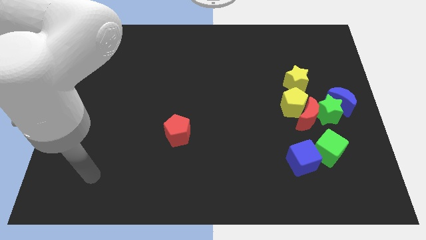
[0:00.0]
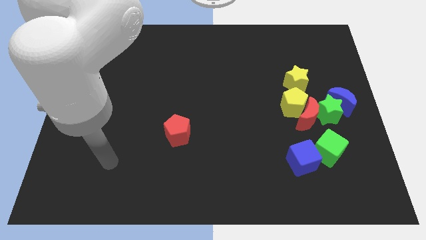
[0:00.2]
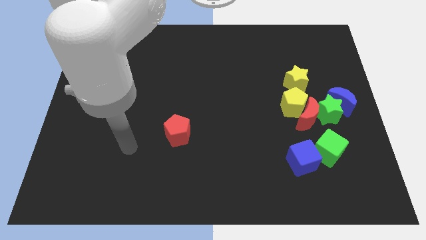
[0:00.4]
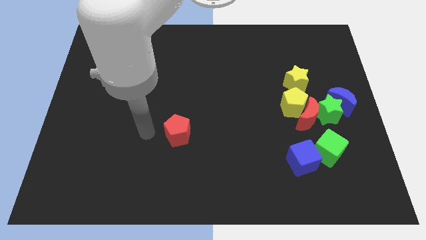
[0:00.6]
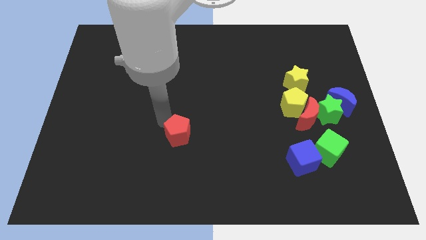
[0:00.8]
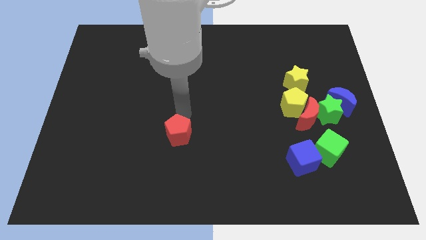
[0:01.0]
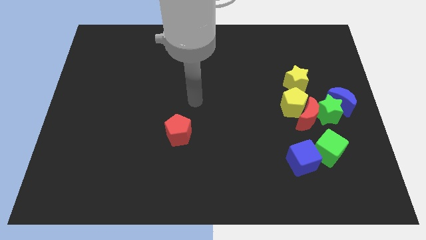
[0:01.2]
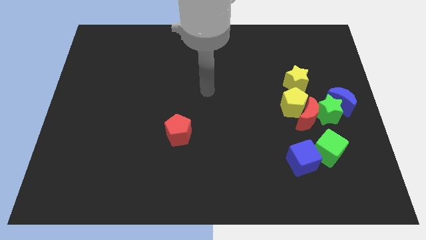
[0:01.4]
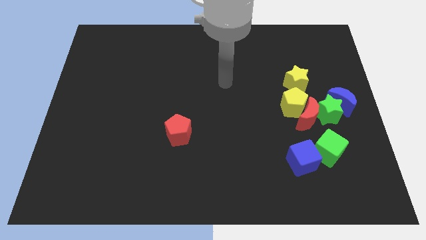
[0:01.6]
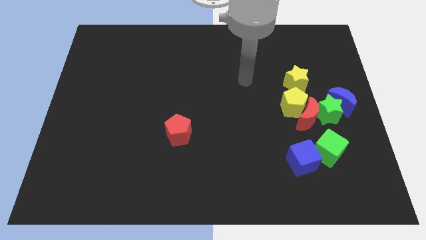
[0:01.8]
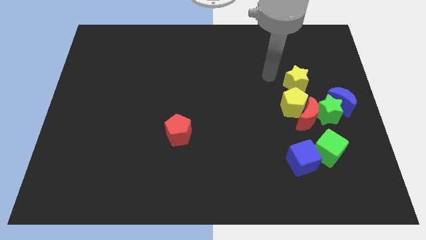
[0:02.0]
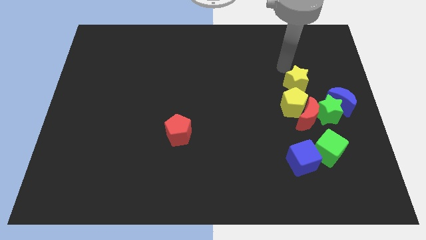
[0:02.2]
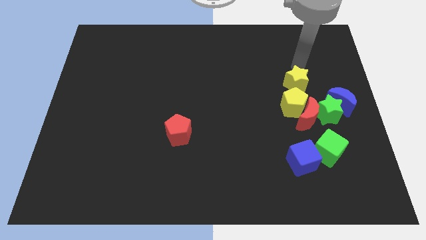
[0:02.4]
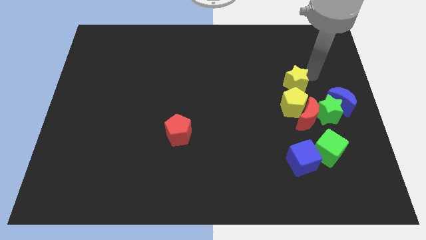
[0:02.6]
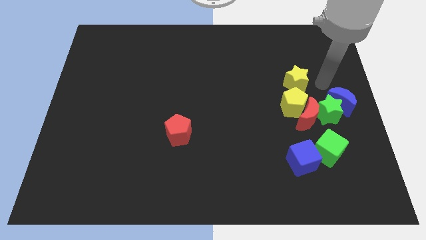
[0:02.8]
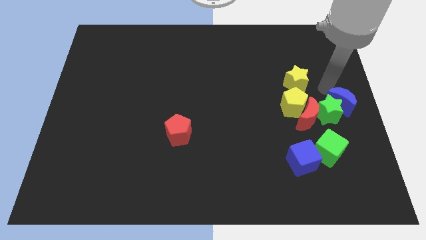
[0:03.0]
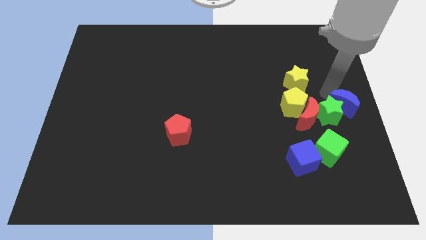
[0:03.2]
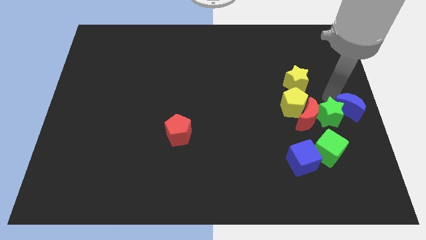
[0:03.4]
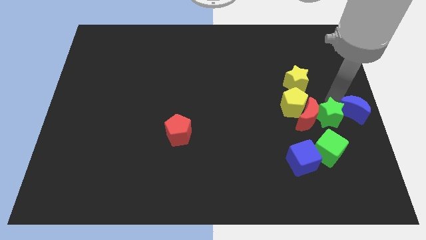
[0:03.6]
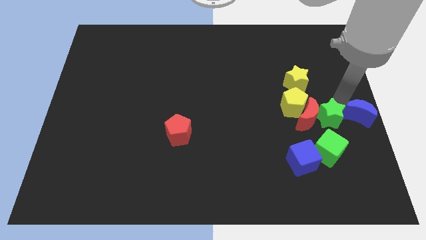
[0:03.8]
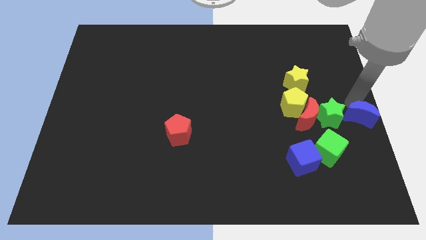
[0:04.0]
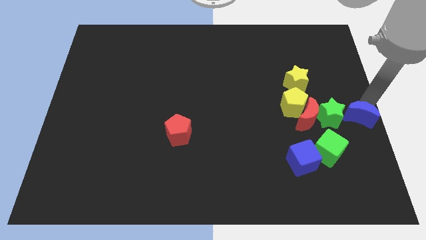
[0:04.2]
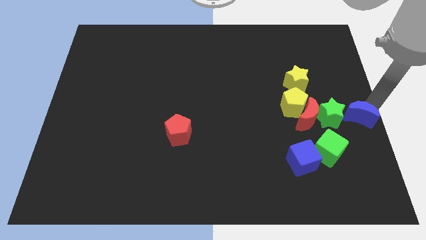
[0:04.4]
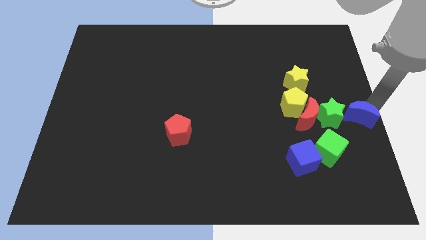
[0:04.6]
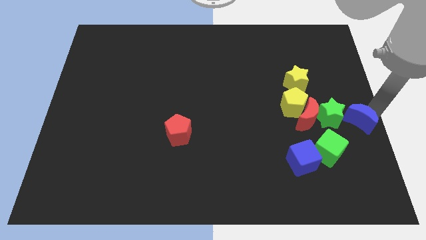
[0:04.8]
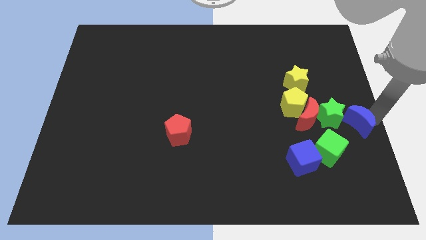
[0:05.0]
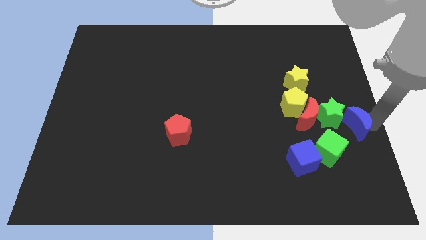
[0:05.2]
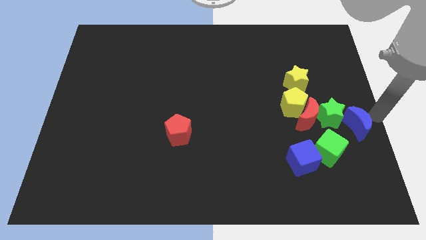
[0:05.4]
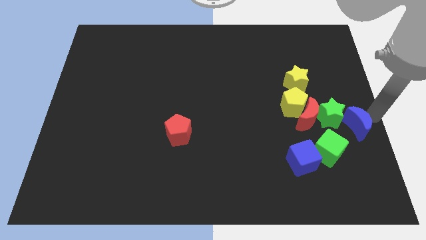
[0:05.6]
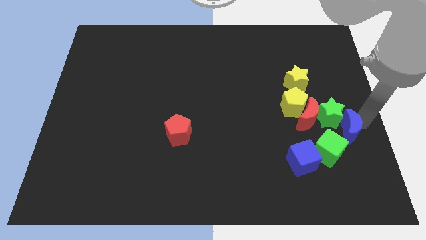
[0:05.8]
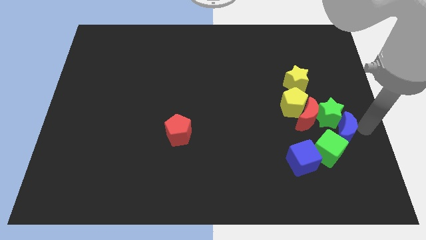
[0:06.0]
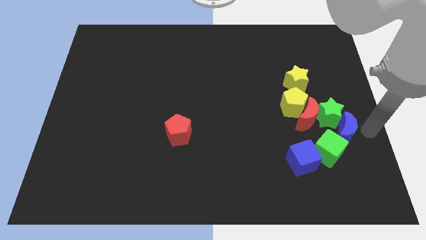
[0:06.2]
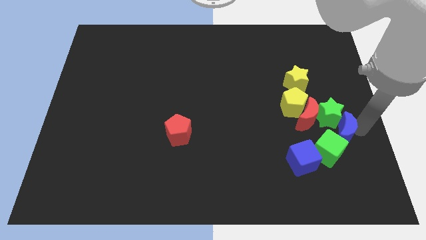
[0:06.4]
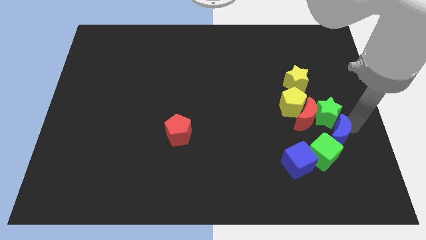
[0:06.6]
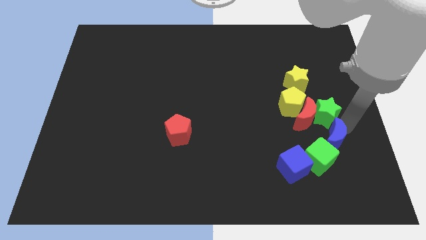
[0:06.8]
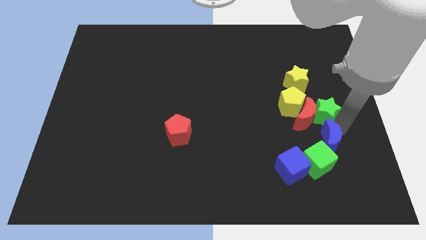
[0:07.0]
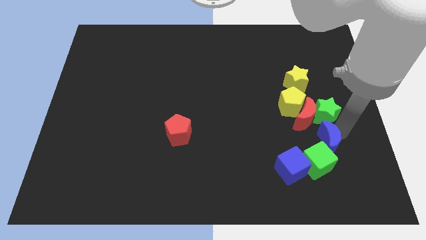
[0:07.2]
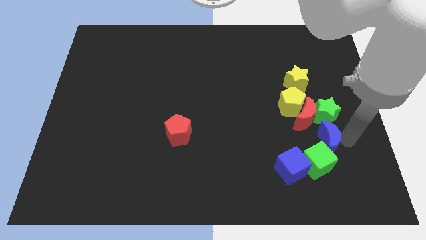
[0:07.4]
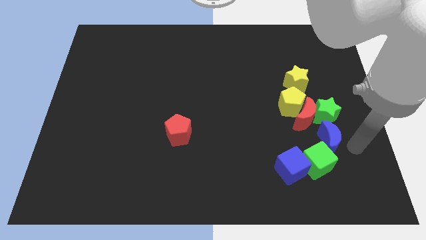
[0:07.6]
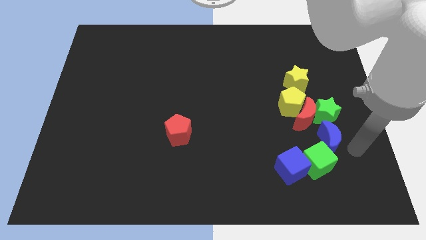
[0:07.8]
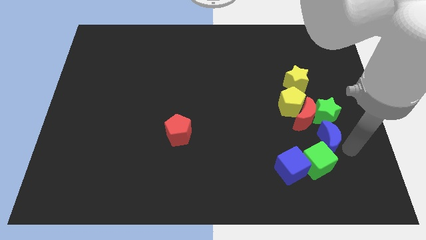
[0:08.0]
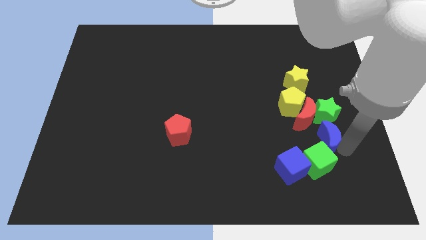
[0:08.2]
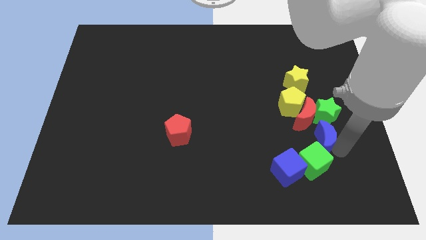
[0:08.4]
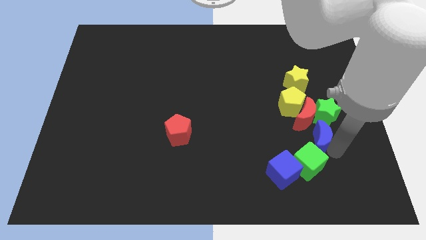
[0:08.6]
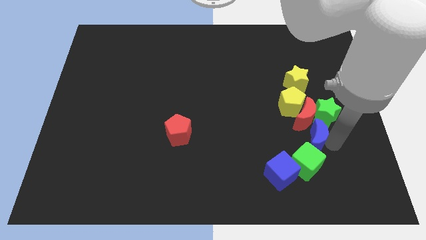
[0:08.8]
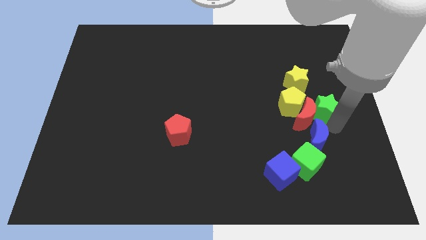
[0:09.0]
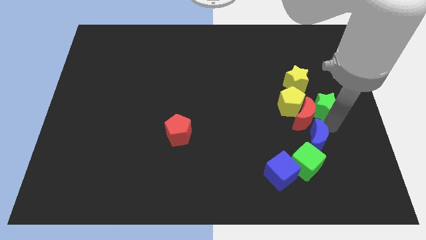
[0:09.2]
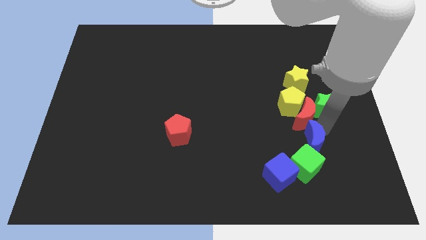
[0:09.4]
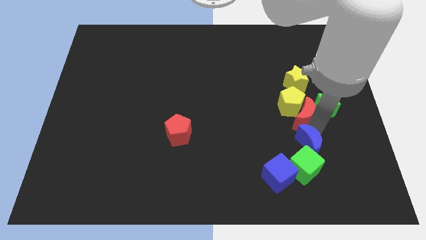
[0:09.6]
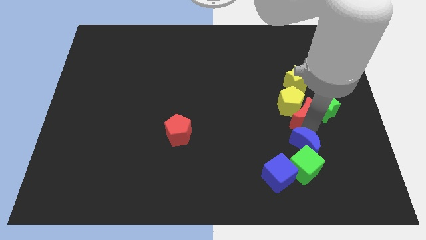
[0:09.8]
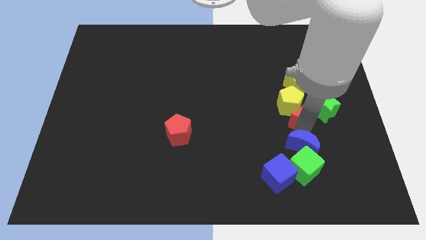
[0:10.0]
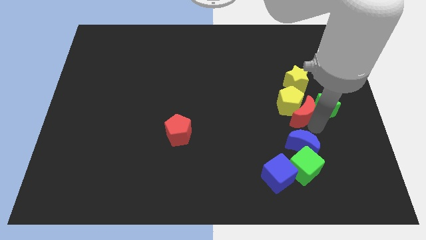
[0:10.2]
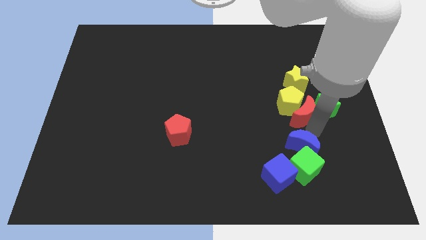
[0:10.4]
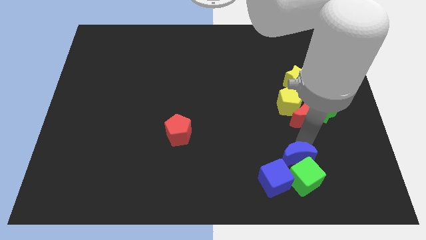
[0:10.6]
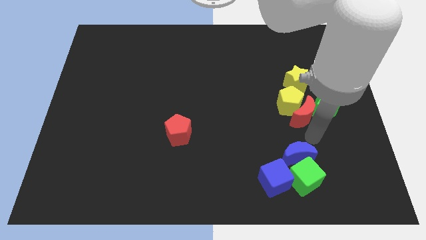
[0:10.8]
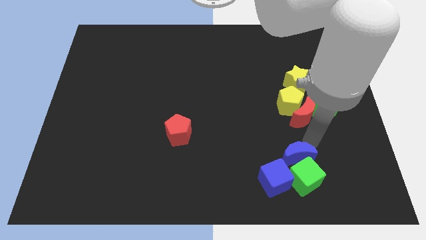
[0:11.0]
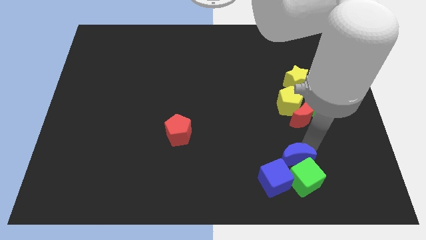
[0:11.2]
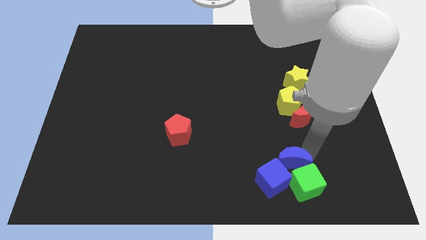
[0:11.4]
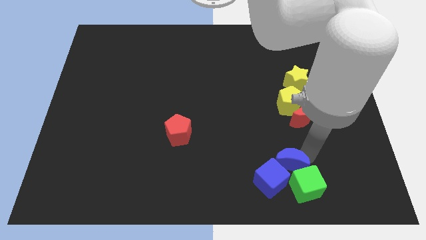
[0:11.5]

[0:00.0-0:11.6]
push the blue moon close to the blue cube
